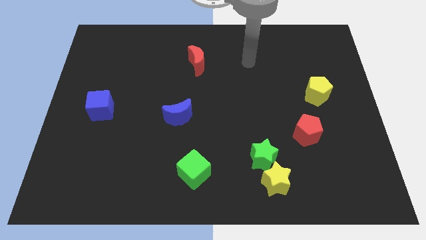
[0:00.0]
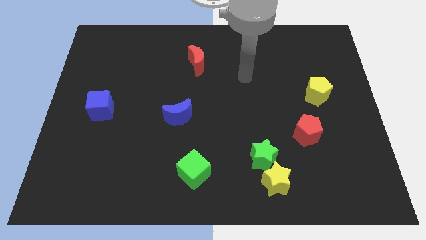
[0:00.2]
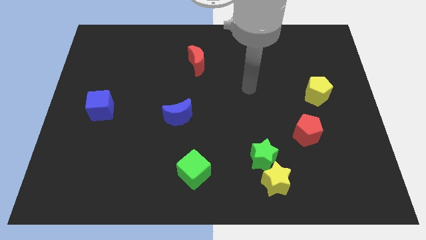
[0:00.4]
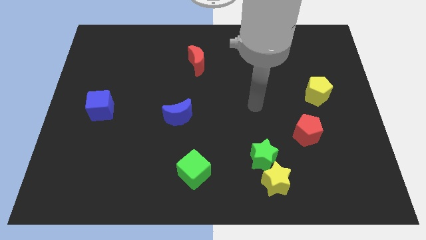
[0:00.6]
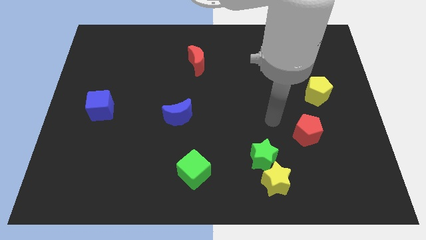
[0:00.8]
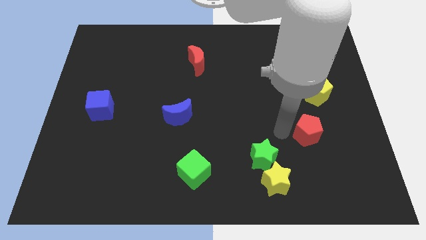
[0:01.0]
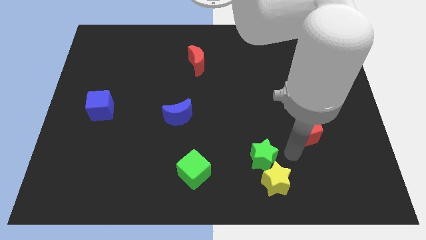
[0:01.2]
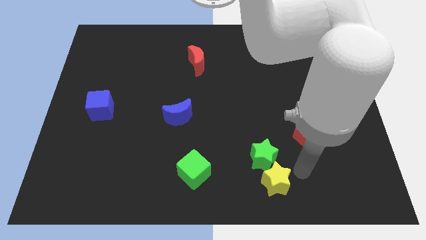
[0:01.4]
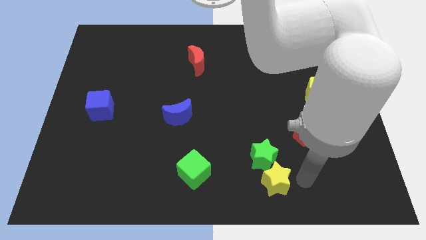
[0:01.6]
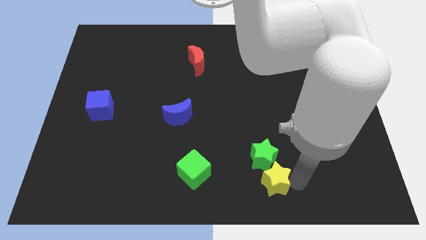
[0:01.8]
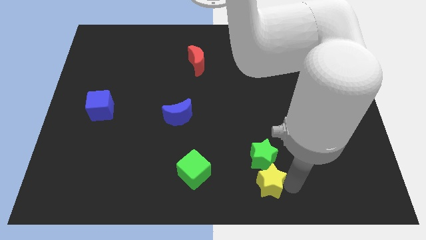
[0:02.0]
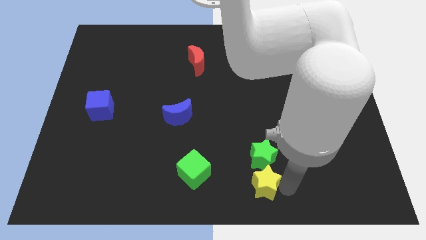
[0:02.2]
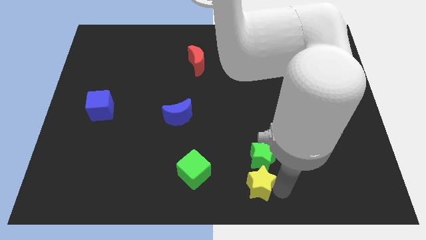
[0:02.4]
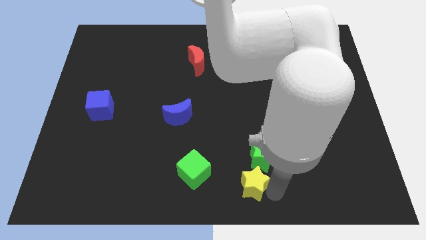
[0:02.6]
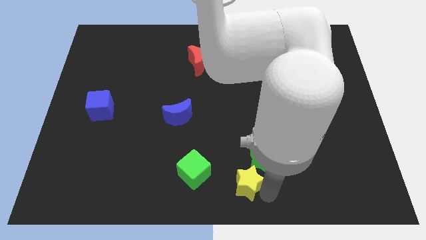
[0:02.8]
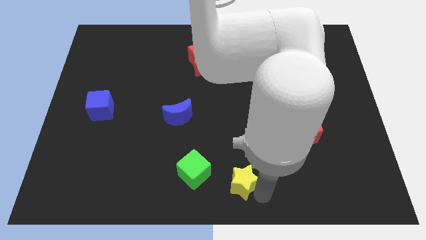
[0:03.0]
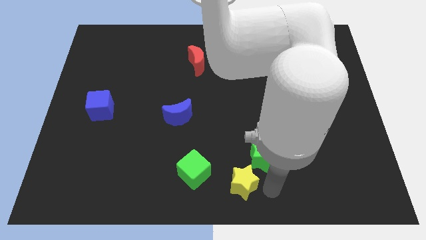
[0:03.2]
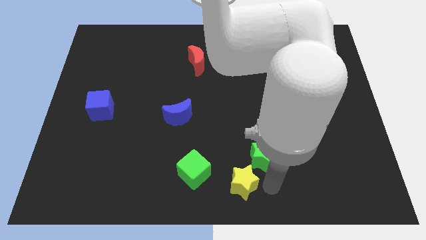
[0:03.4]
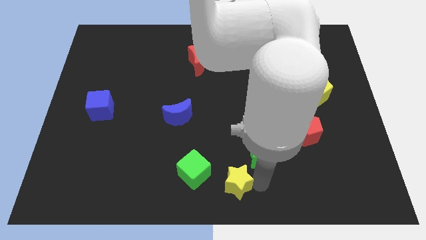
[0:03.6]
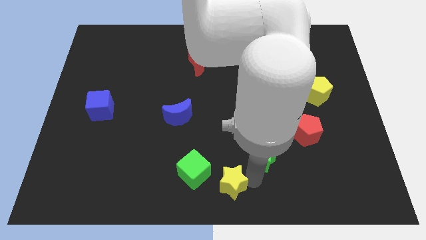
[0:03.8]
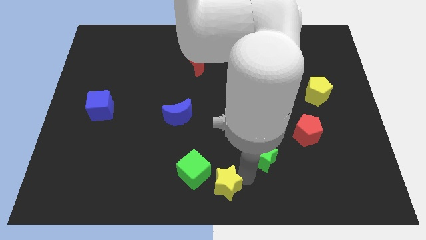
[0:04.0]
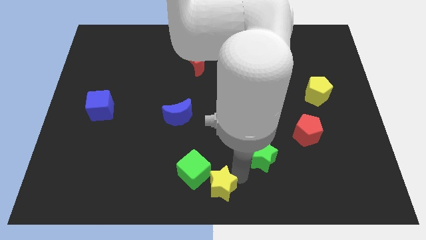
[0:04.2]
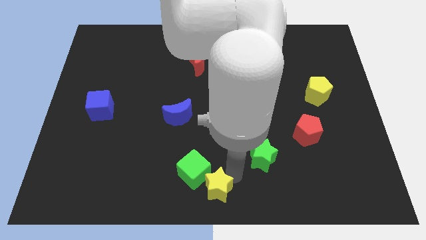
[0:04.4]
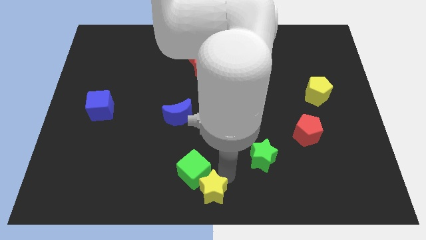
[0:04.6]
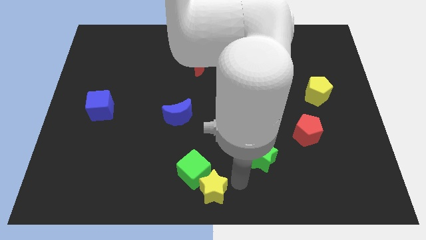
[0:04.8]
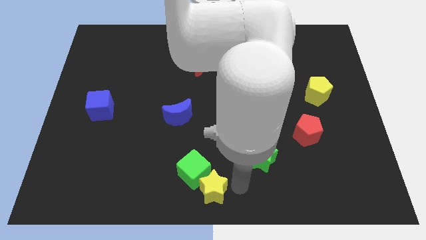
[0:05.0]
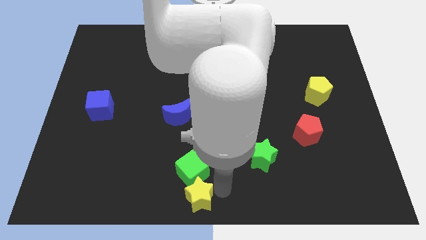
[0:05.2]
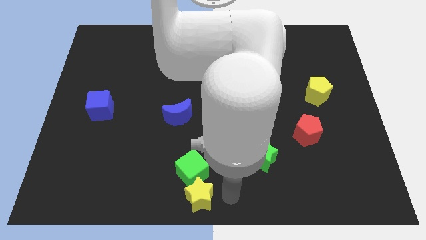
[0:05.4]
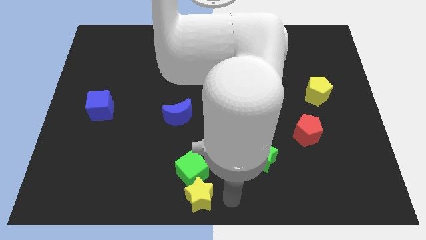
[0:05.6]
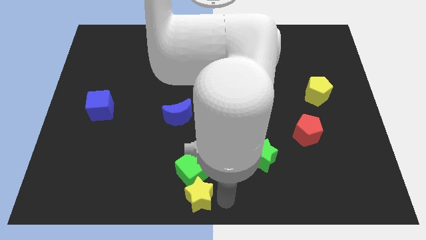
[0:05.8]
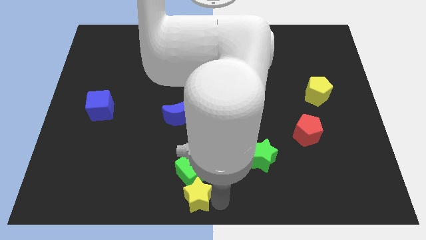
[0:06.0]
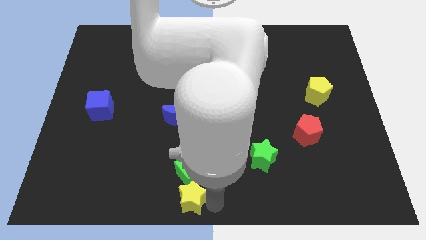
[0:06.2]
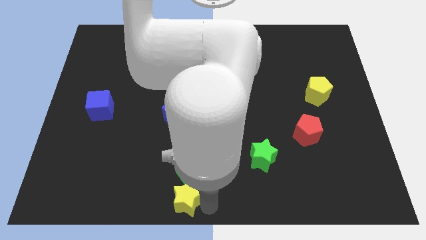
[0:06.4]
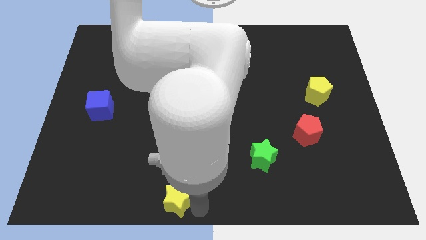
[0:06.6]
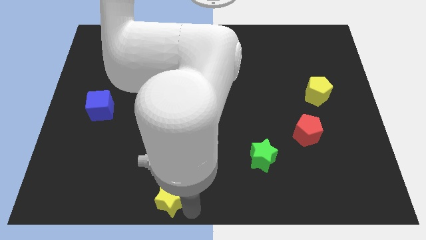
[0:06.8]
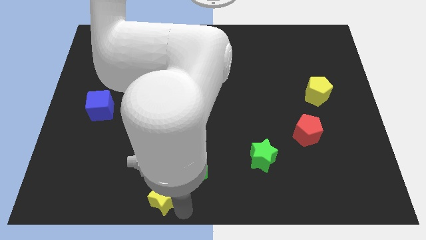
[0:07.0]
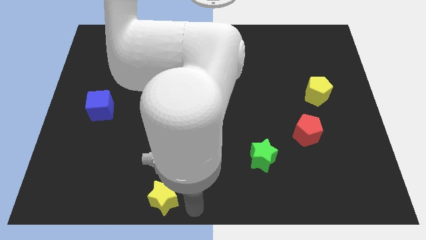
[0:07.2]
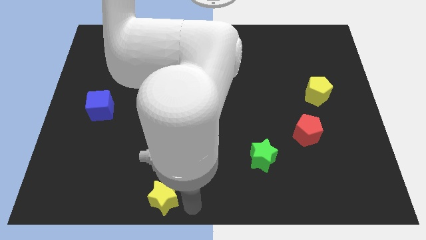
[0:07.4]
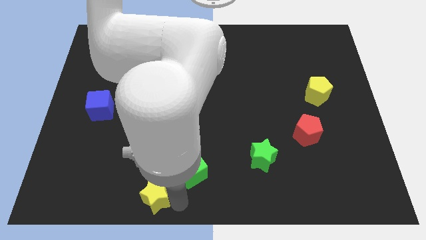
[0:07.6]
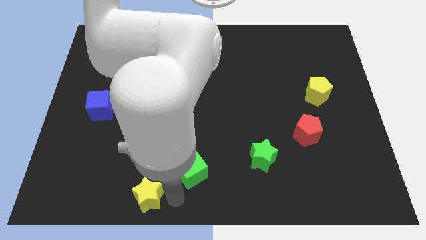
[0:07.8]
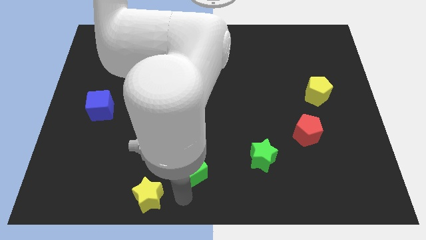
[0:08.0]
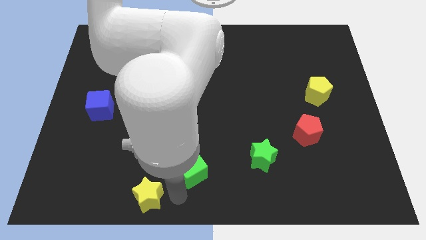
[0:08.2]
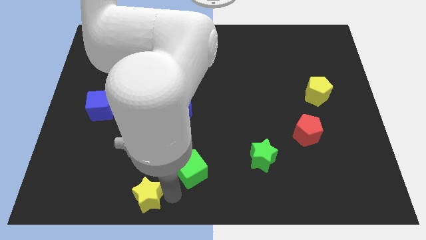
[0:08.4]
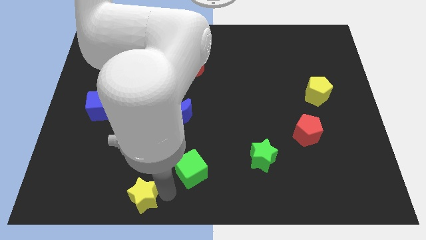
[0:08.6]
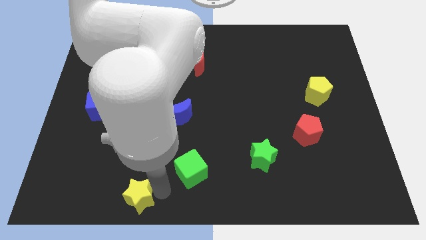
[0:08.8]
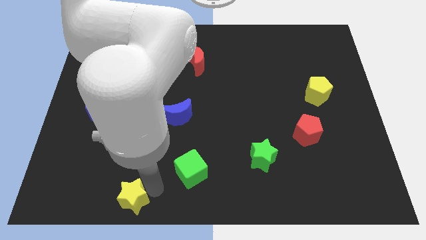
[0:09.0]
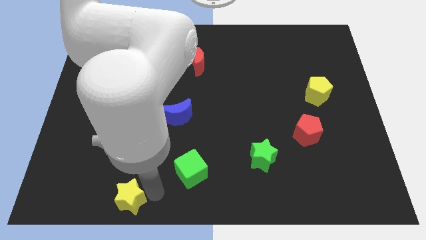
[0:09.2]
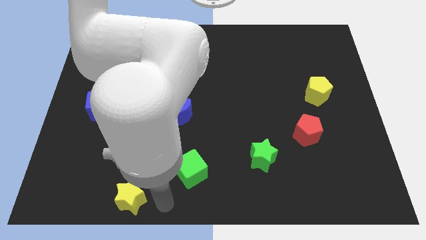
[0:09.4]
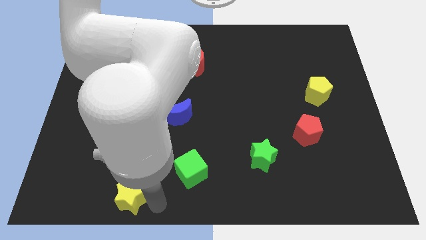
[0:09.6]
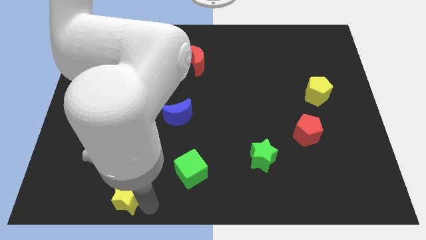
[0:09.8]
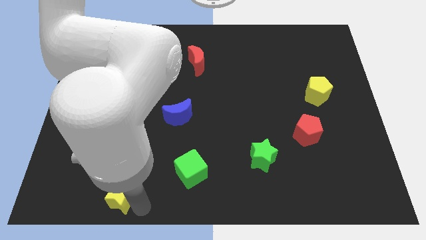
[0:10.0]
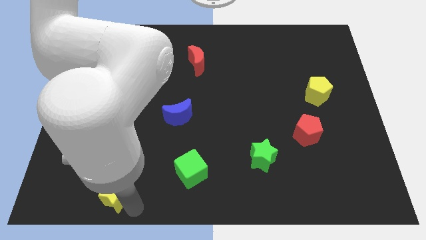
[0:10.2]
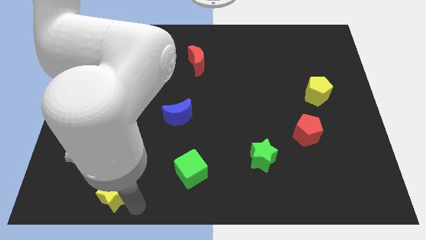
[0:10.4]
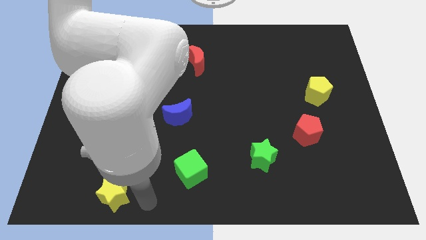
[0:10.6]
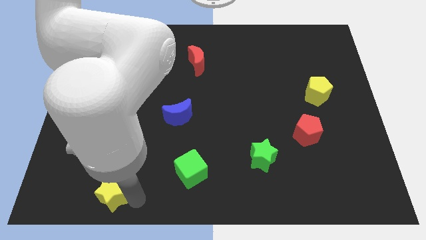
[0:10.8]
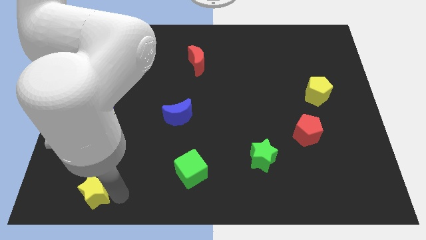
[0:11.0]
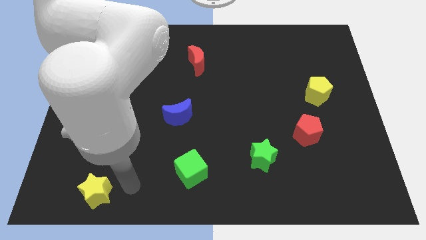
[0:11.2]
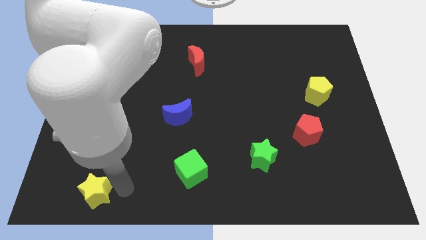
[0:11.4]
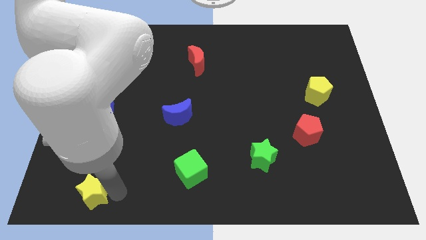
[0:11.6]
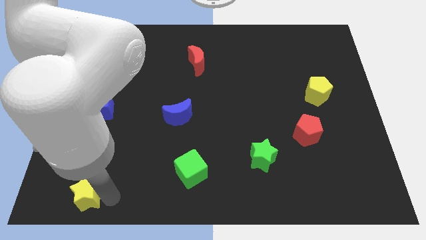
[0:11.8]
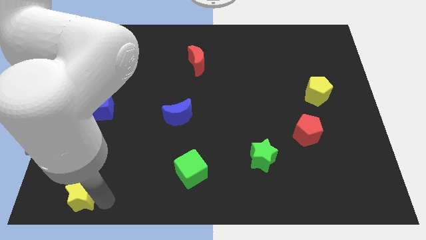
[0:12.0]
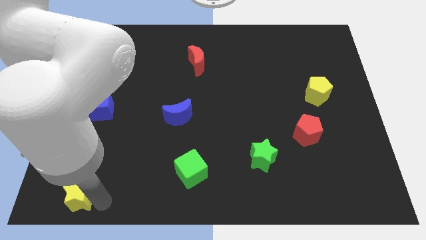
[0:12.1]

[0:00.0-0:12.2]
move the yellow star to the bottom left
